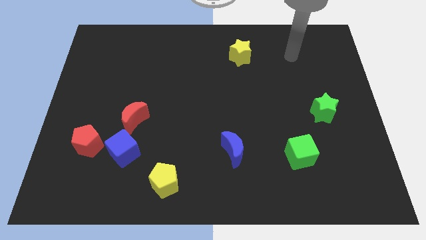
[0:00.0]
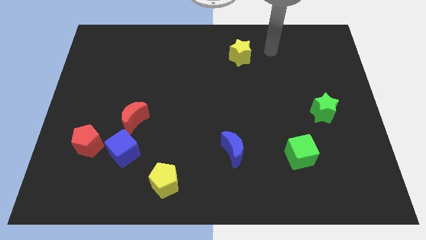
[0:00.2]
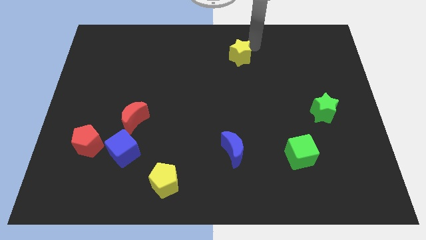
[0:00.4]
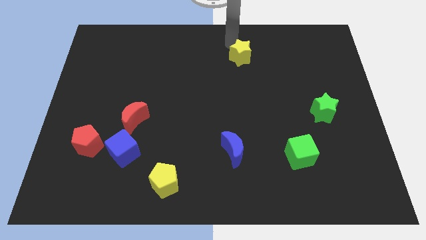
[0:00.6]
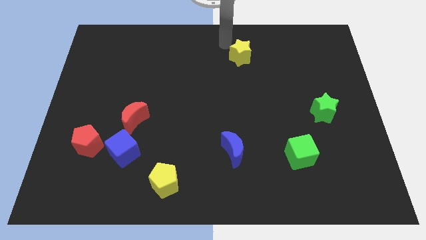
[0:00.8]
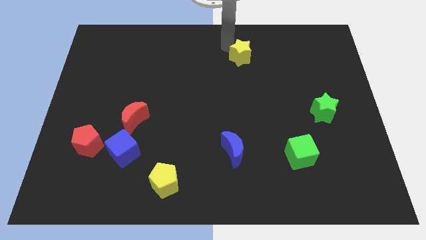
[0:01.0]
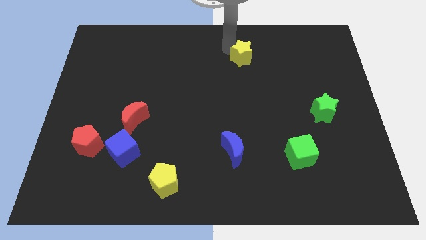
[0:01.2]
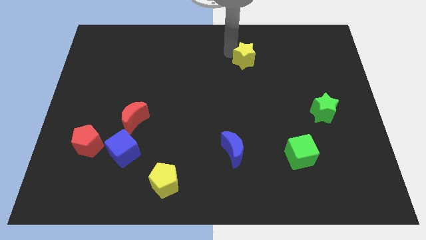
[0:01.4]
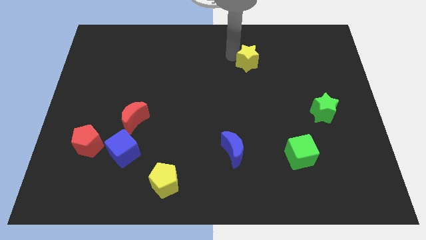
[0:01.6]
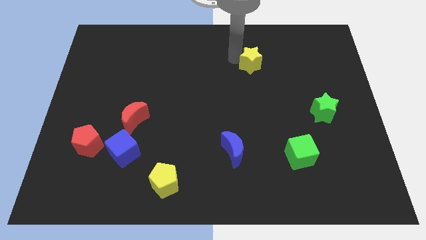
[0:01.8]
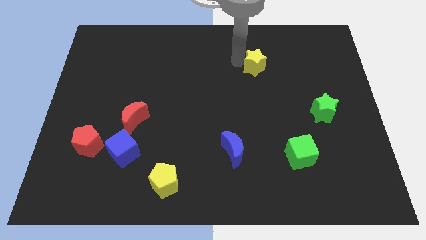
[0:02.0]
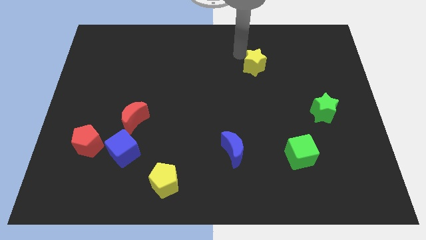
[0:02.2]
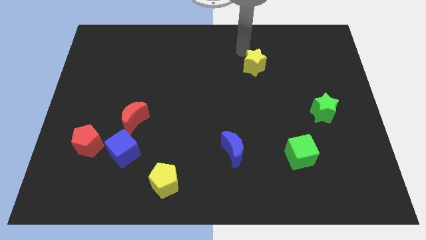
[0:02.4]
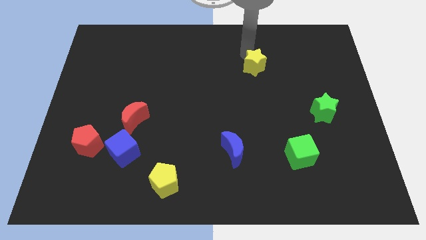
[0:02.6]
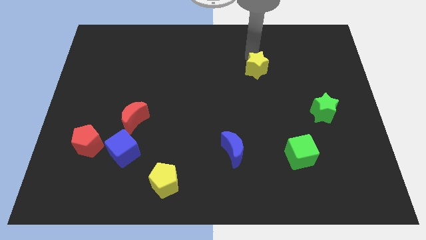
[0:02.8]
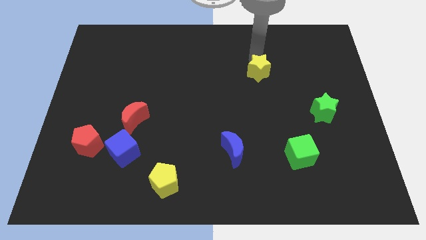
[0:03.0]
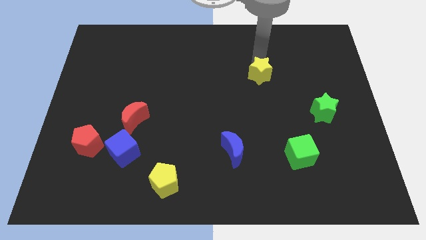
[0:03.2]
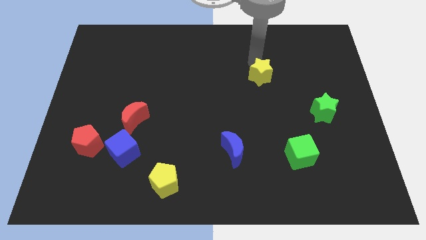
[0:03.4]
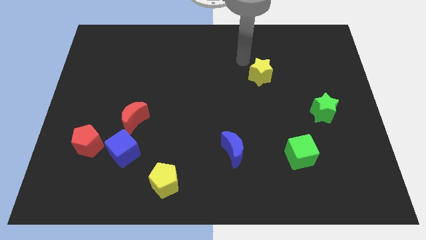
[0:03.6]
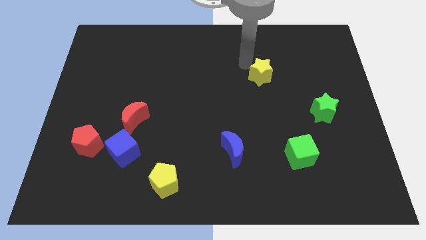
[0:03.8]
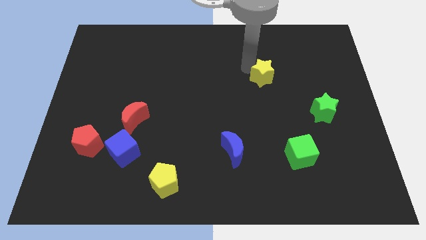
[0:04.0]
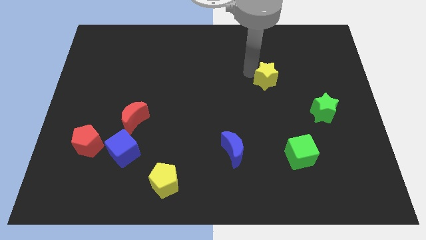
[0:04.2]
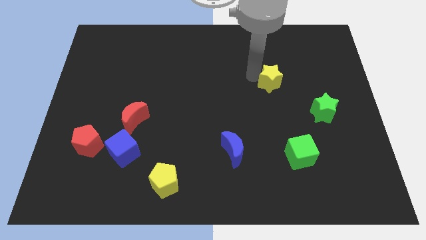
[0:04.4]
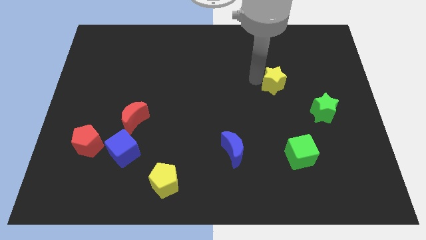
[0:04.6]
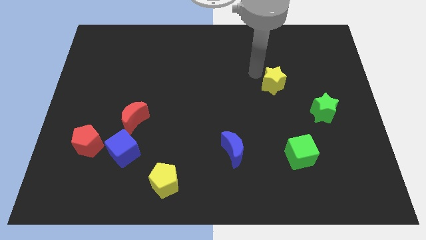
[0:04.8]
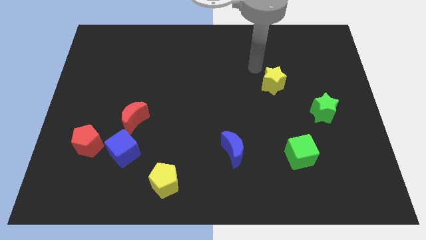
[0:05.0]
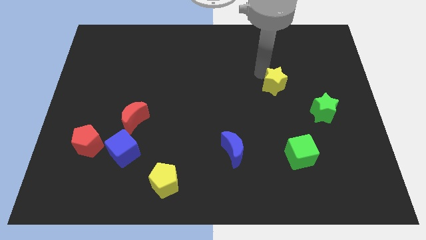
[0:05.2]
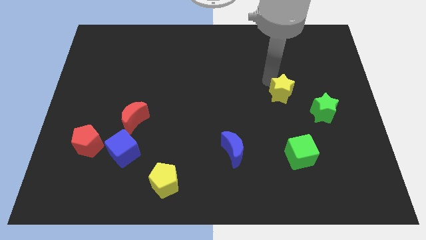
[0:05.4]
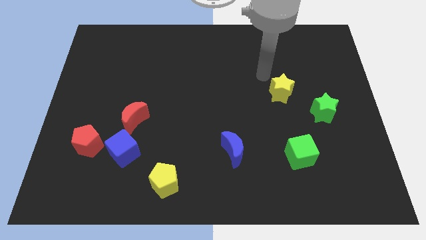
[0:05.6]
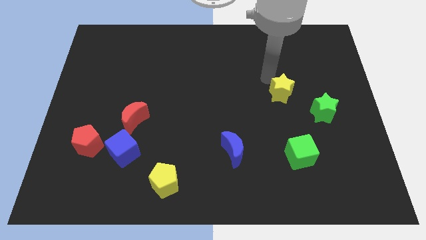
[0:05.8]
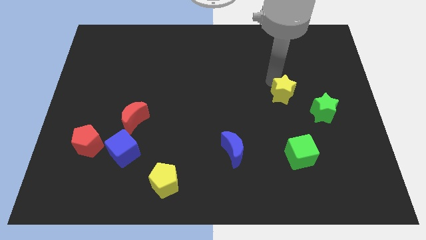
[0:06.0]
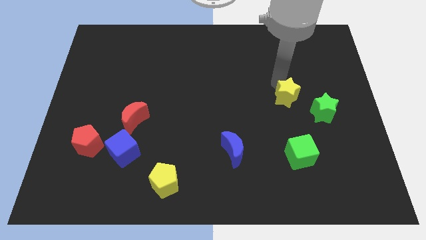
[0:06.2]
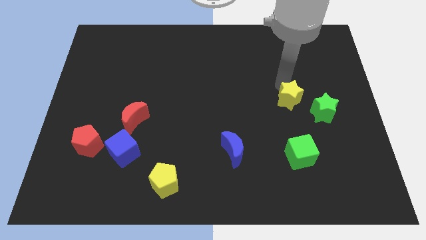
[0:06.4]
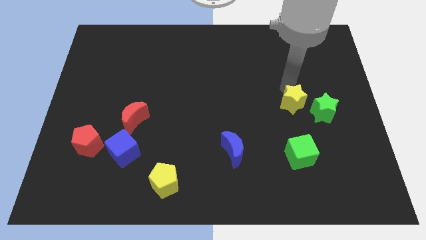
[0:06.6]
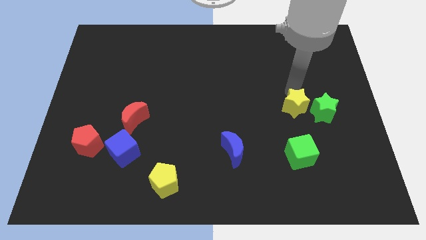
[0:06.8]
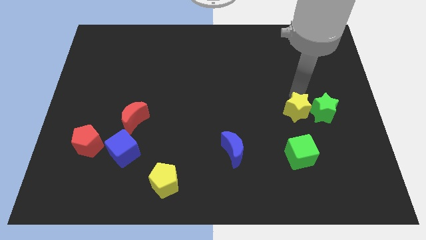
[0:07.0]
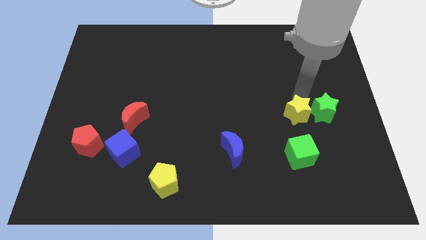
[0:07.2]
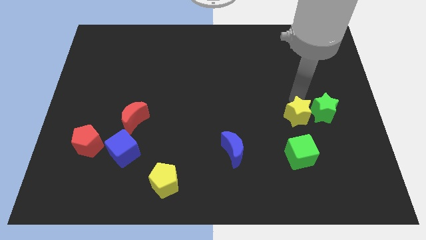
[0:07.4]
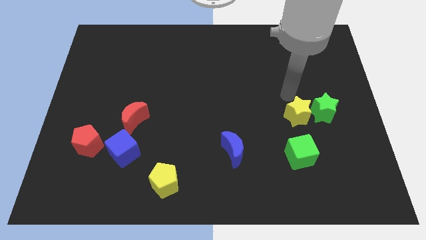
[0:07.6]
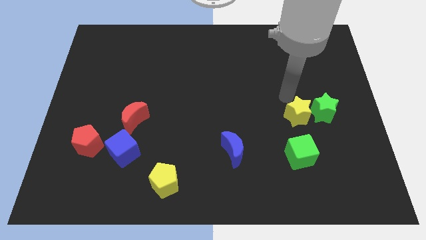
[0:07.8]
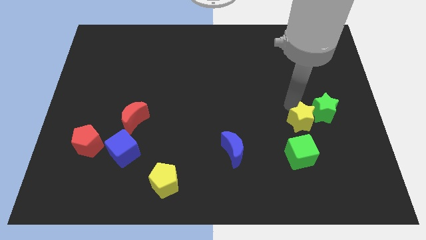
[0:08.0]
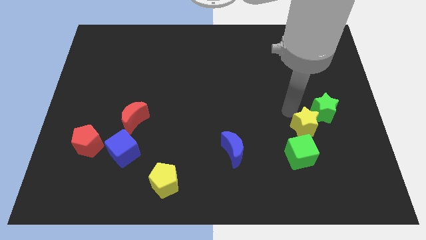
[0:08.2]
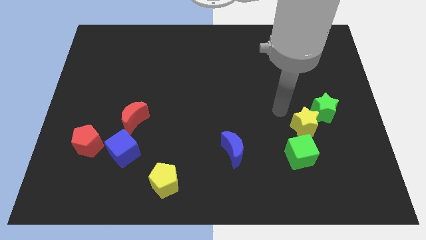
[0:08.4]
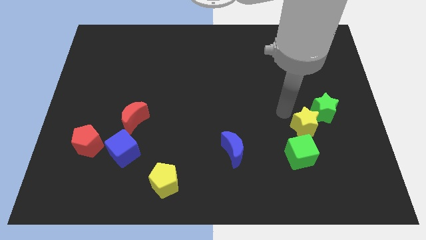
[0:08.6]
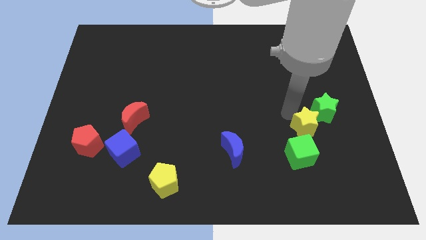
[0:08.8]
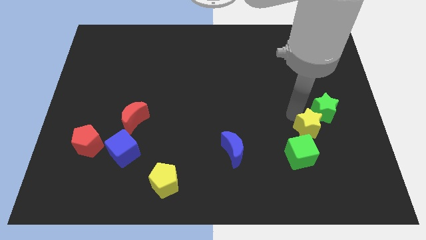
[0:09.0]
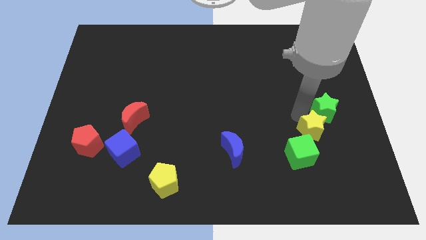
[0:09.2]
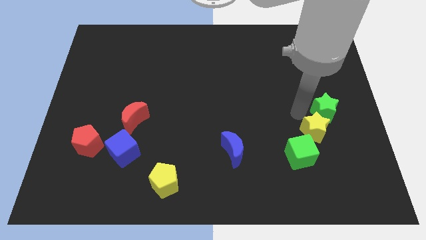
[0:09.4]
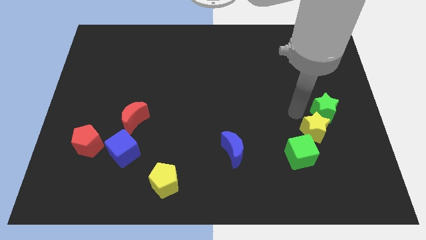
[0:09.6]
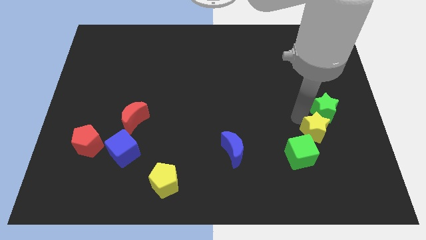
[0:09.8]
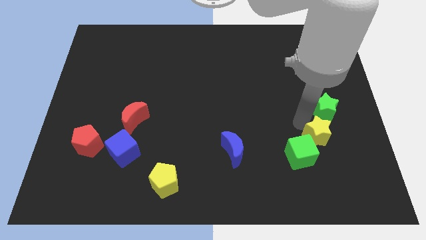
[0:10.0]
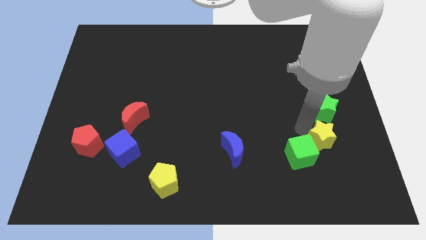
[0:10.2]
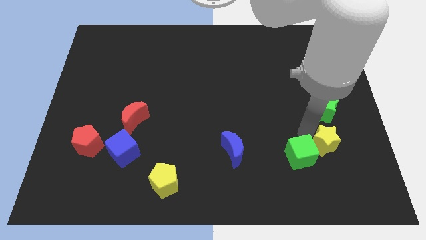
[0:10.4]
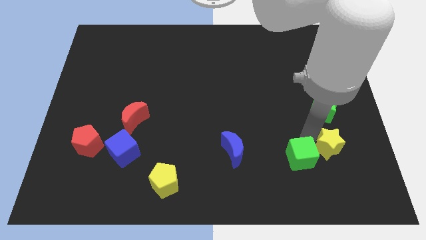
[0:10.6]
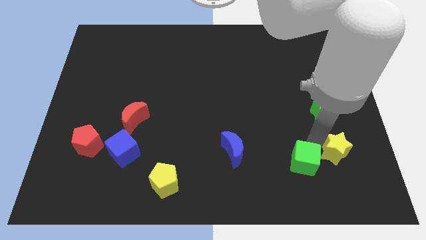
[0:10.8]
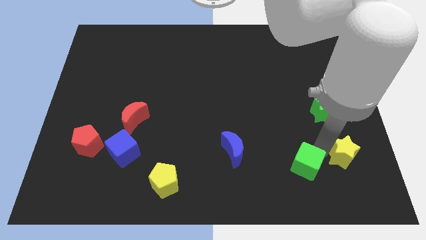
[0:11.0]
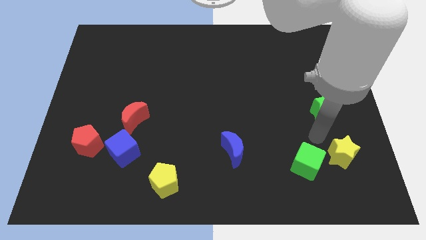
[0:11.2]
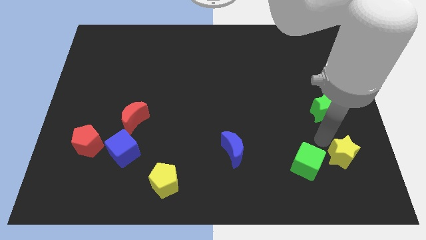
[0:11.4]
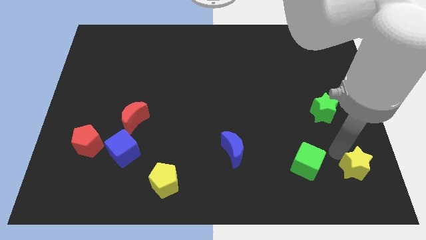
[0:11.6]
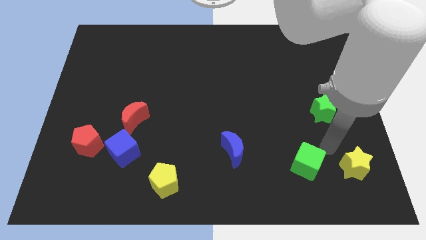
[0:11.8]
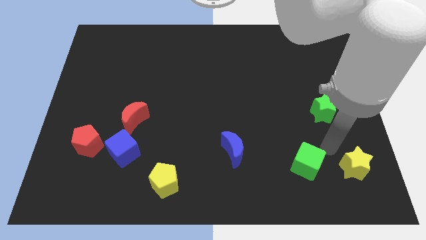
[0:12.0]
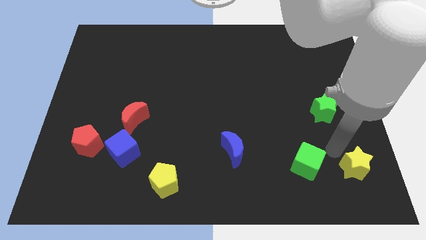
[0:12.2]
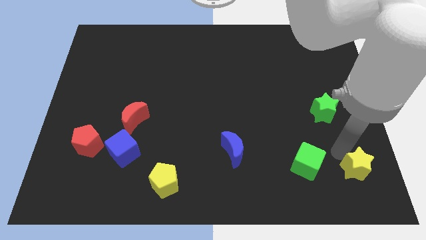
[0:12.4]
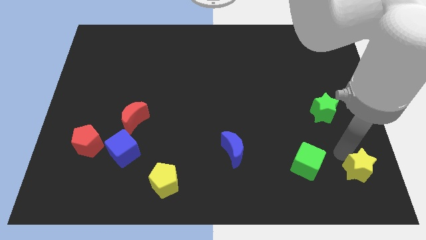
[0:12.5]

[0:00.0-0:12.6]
push the yellow star to the lower right corner

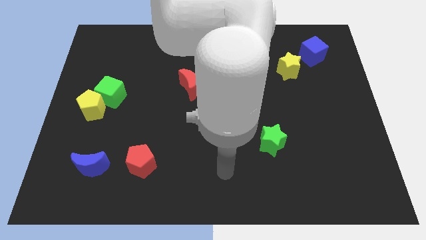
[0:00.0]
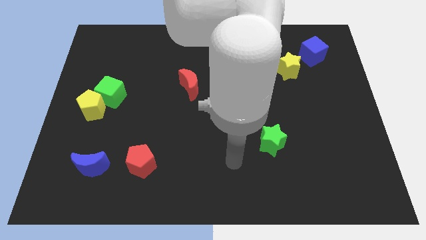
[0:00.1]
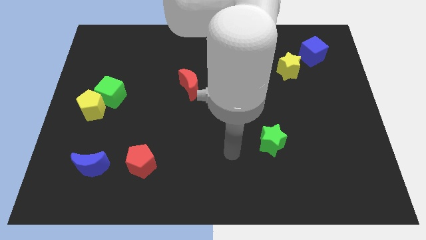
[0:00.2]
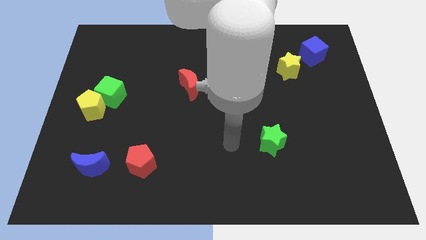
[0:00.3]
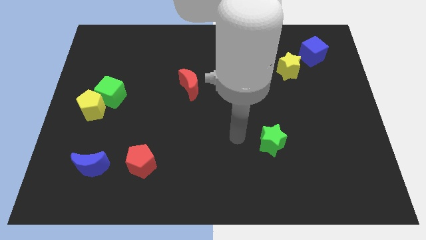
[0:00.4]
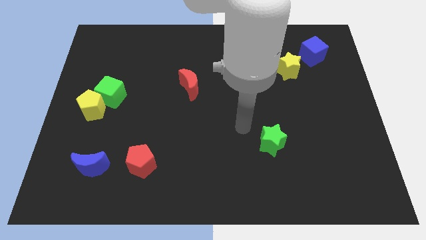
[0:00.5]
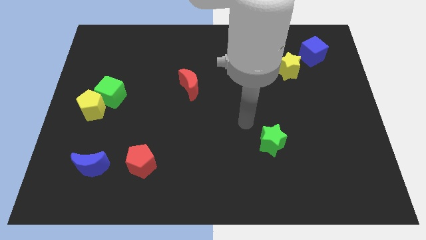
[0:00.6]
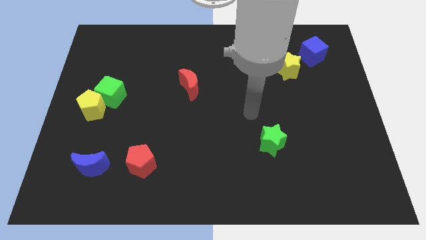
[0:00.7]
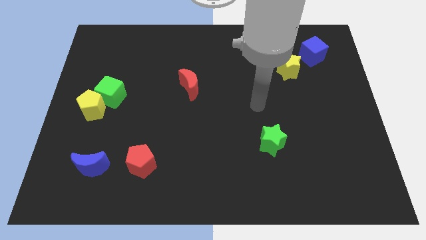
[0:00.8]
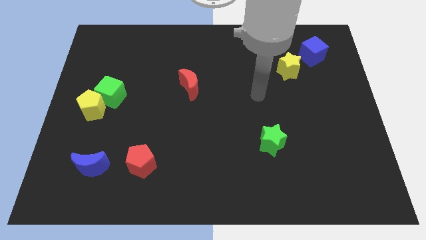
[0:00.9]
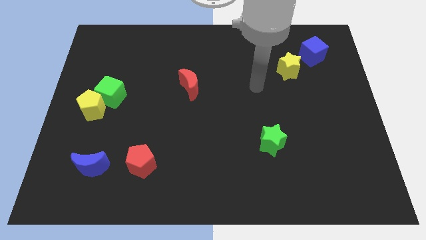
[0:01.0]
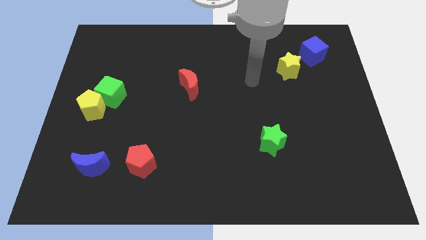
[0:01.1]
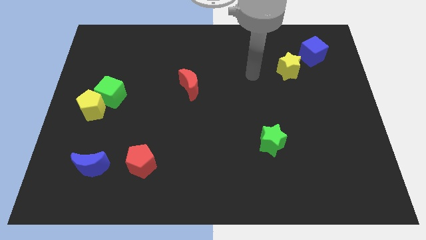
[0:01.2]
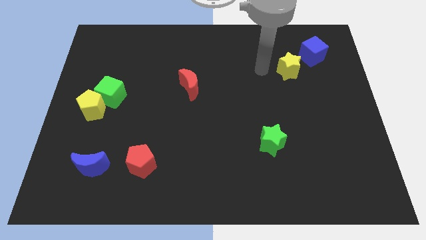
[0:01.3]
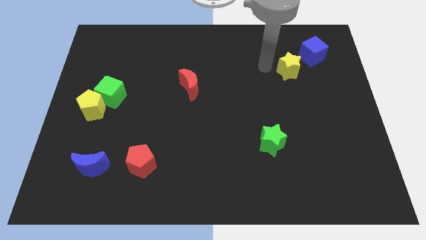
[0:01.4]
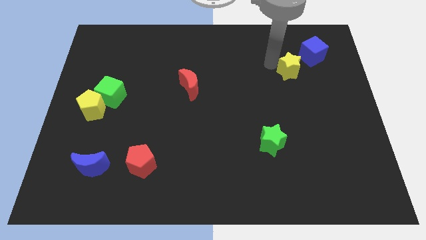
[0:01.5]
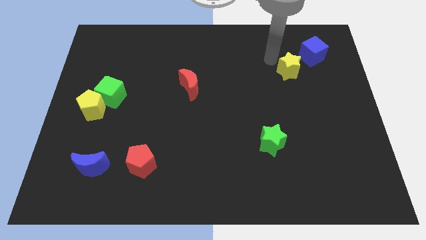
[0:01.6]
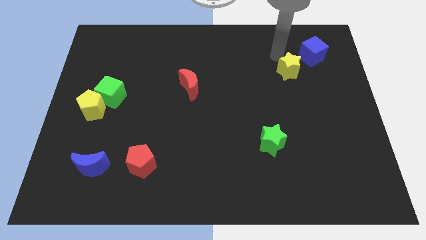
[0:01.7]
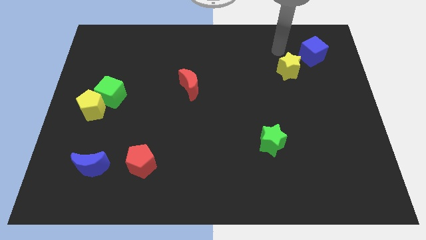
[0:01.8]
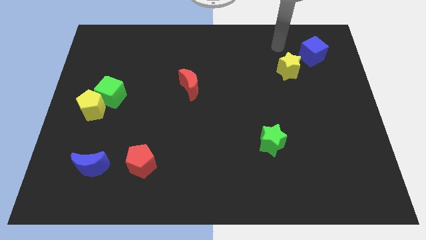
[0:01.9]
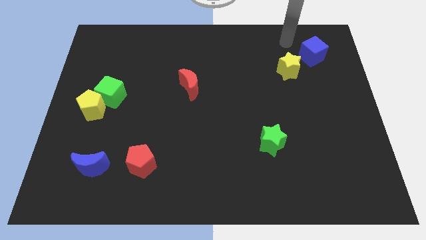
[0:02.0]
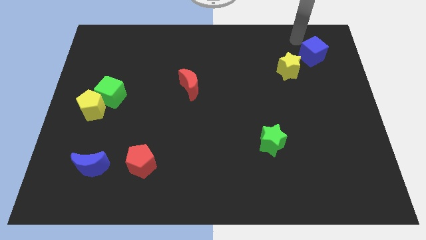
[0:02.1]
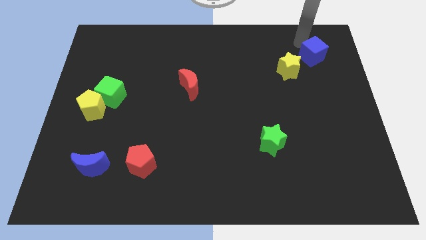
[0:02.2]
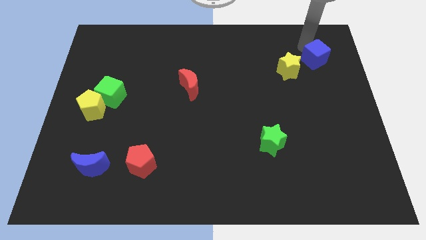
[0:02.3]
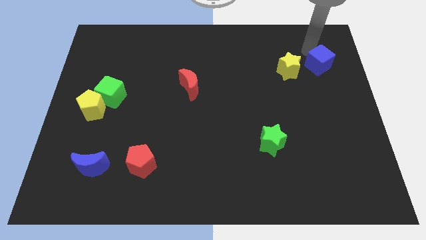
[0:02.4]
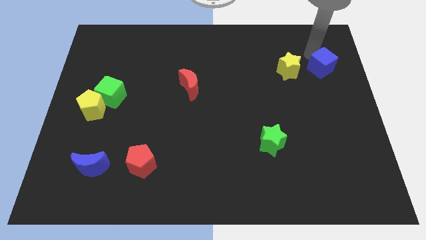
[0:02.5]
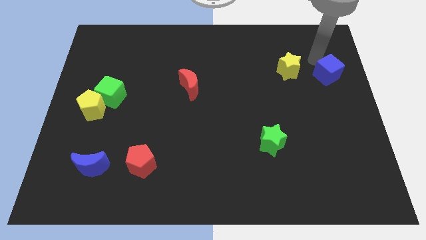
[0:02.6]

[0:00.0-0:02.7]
put the blue cube to the right side of the board
